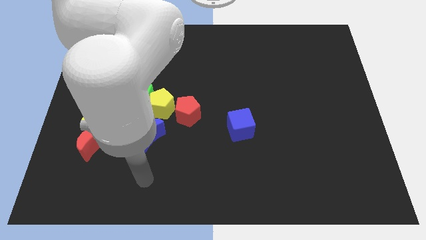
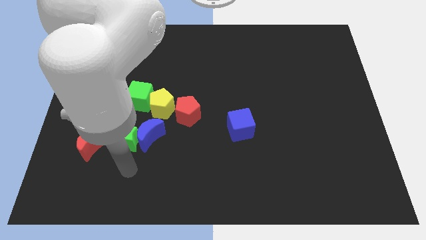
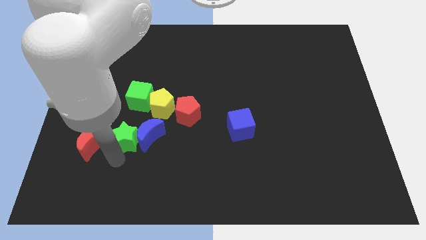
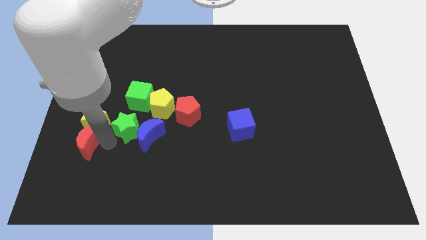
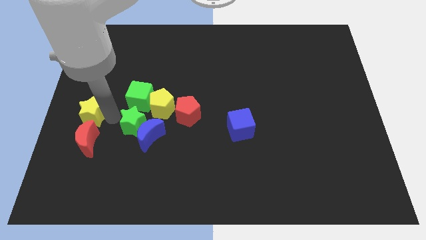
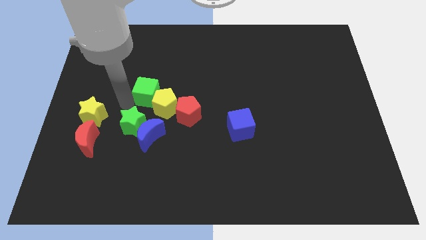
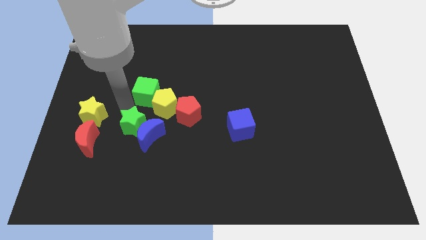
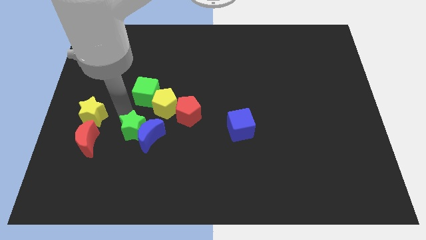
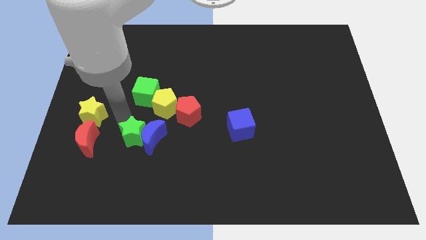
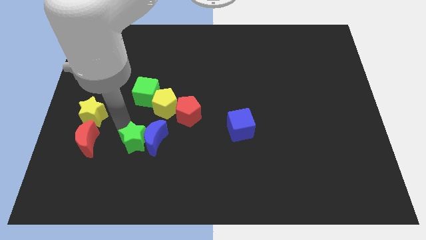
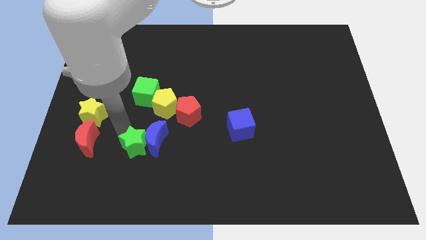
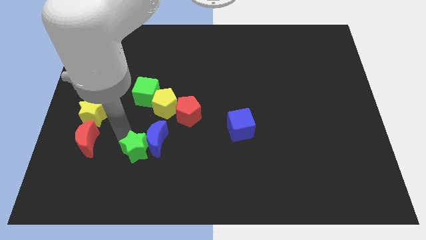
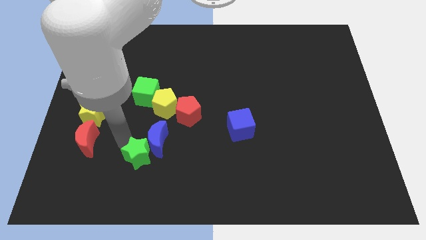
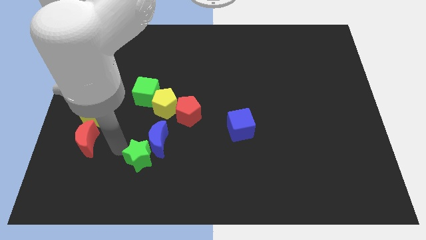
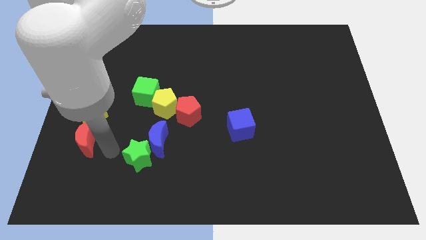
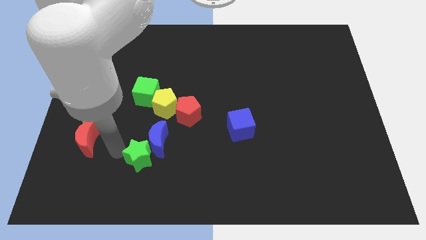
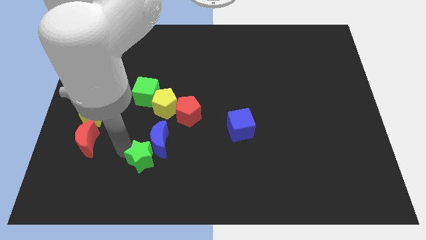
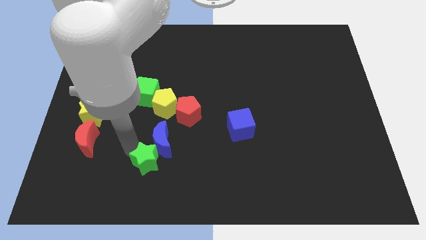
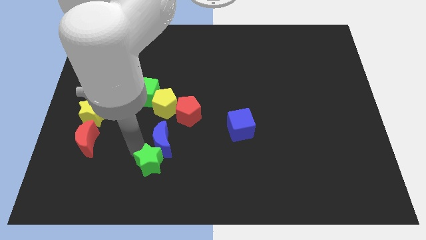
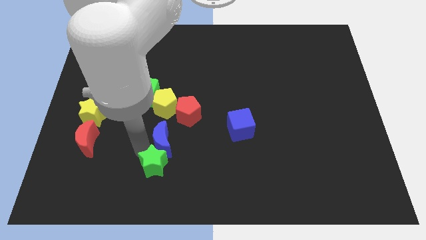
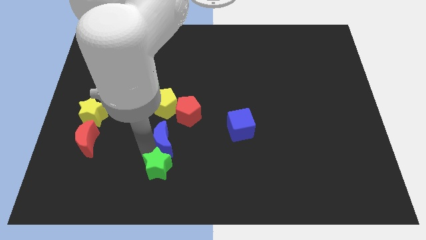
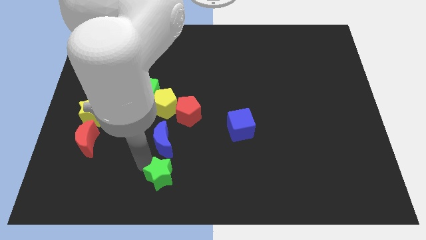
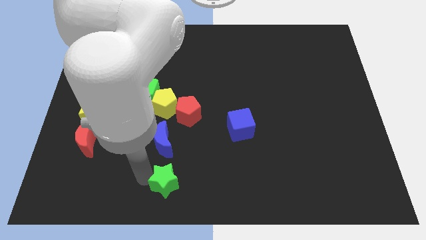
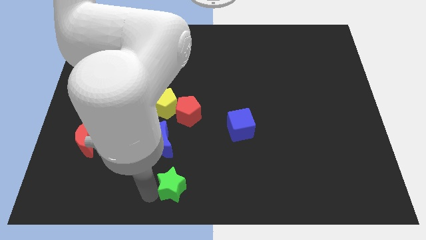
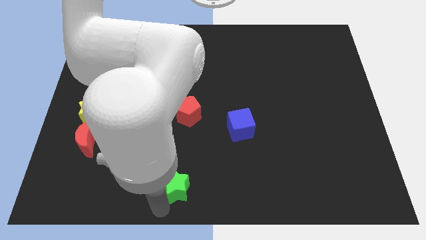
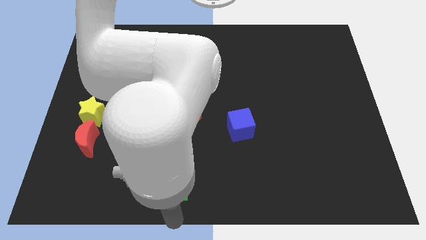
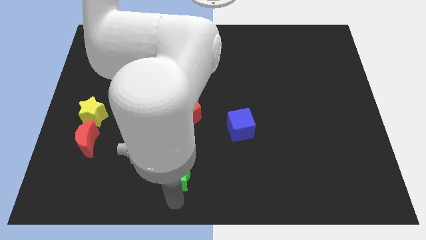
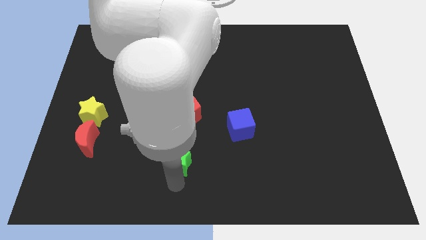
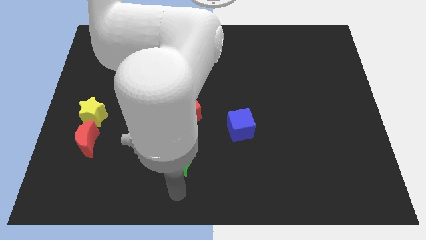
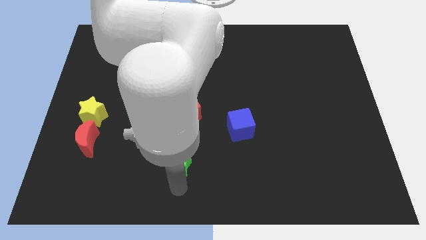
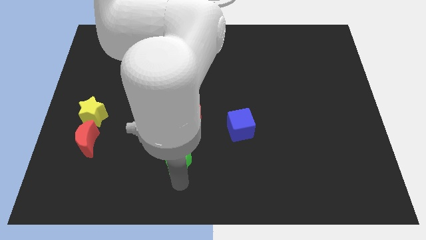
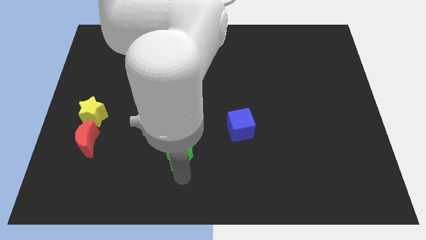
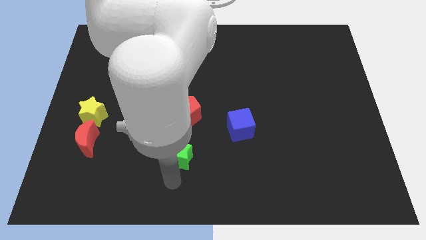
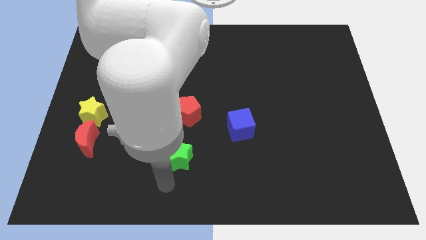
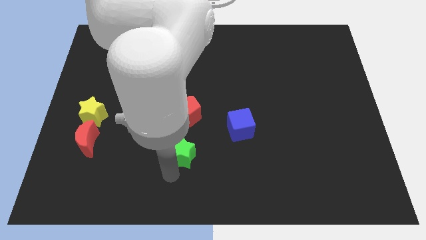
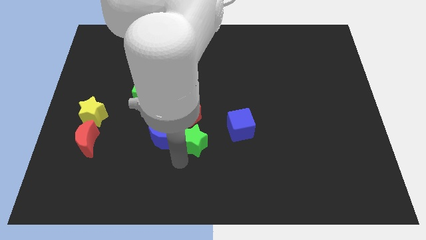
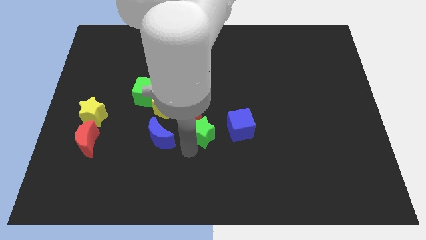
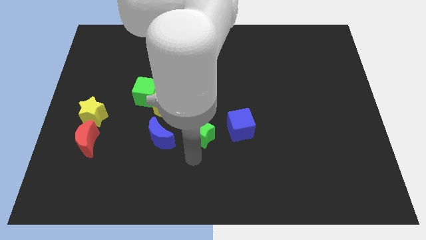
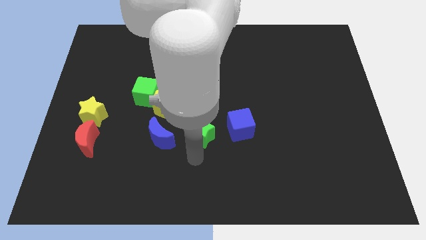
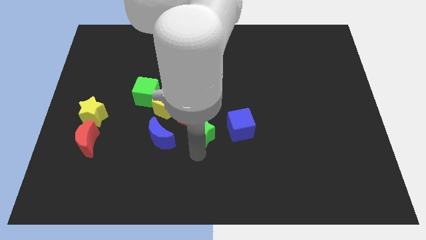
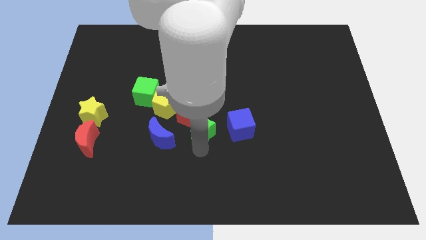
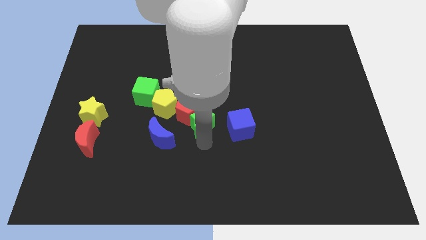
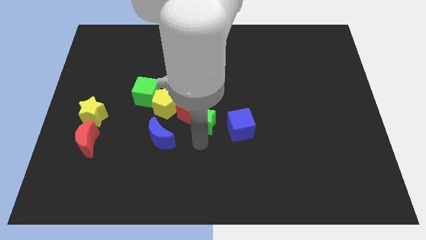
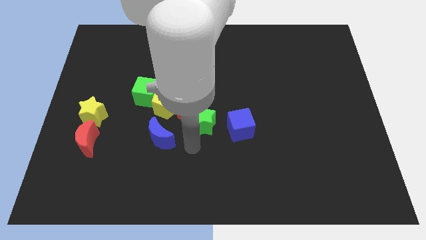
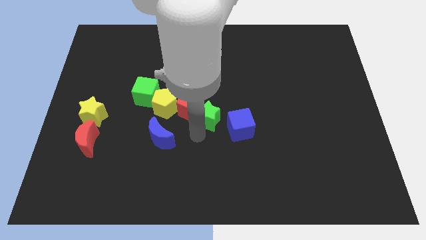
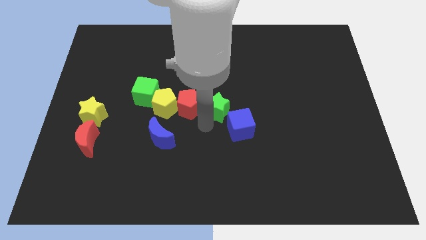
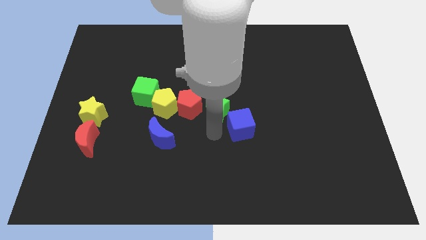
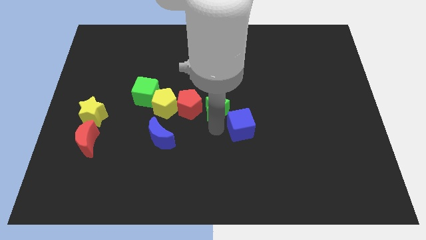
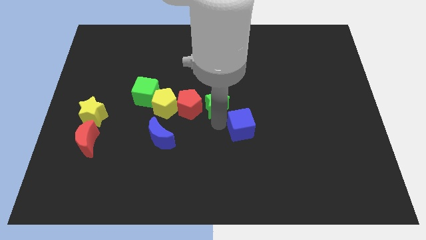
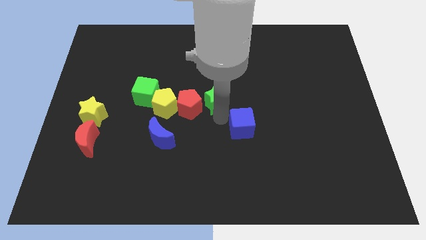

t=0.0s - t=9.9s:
slide the green star diagonally upwards and to the right

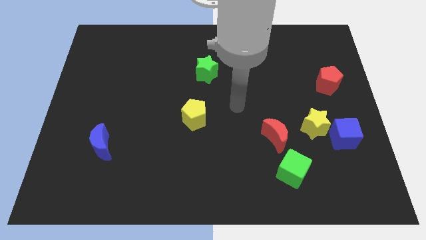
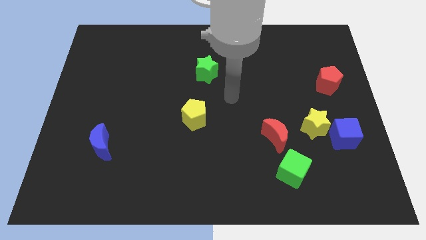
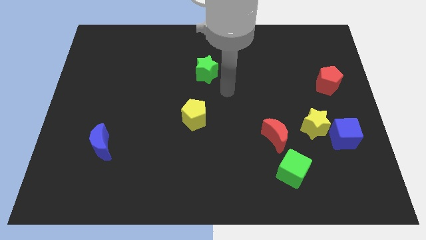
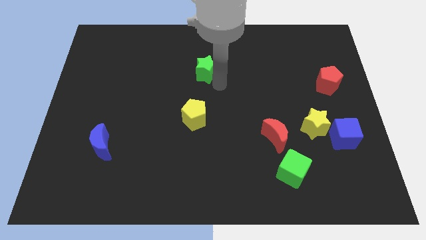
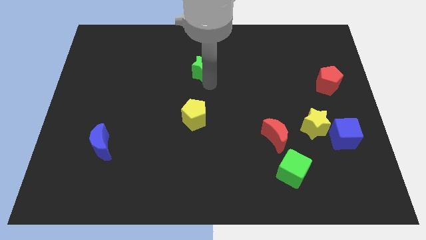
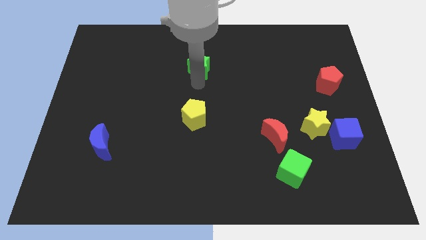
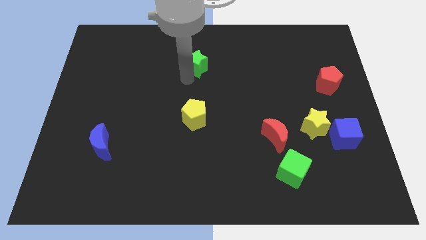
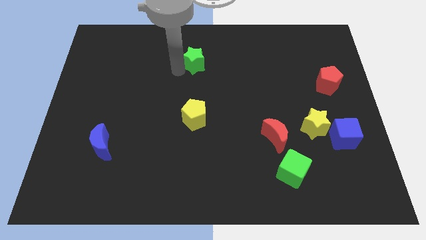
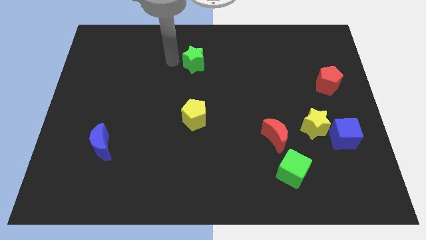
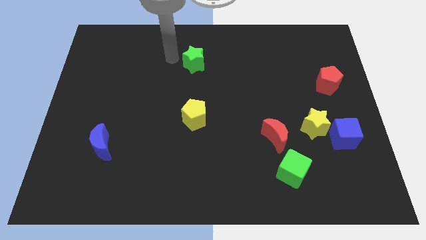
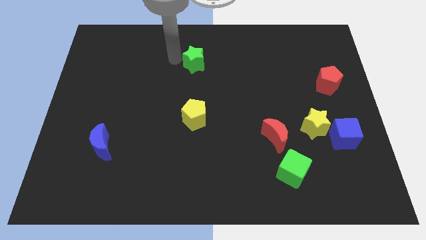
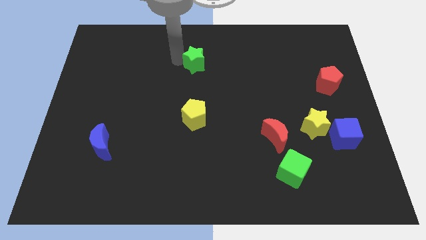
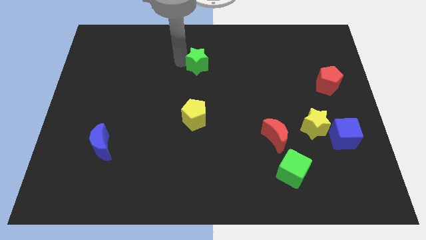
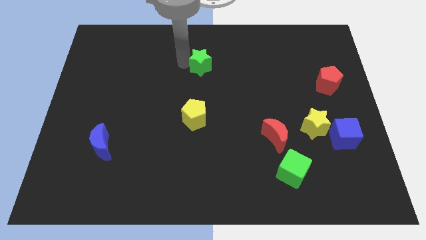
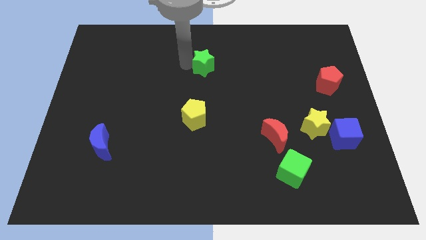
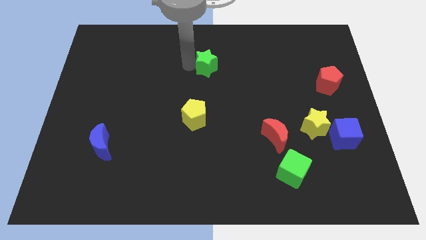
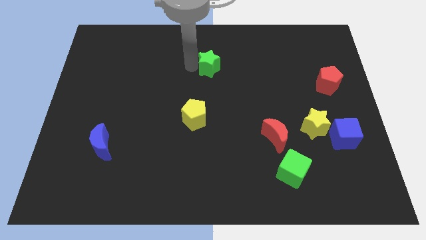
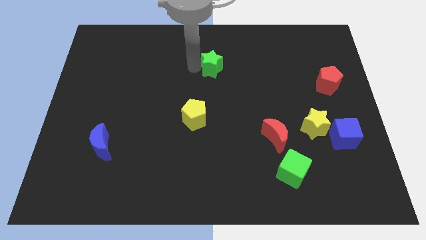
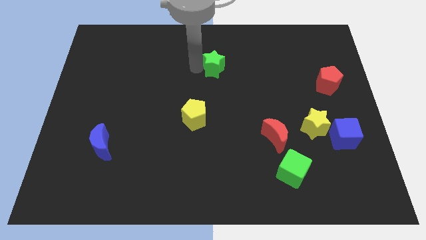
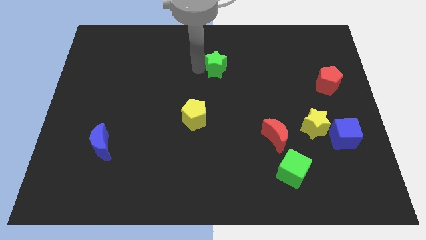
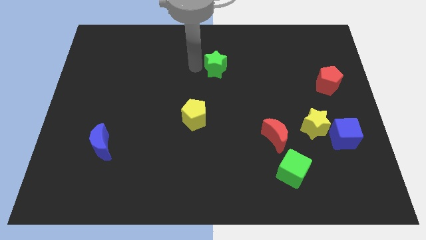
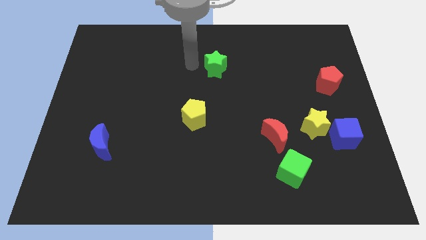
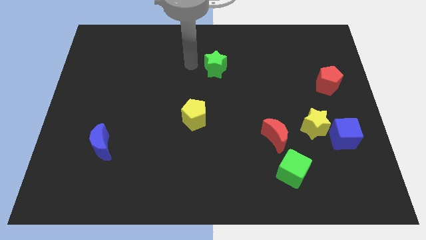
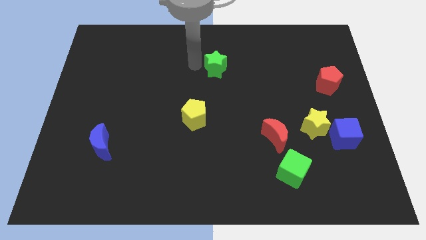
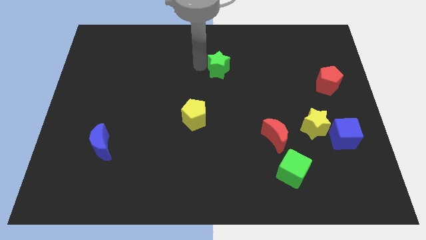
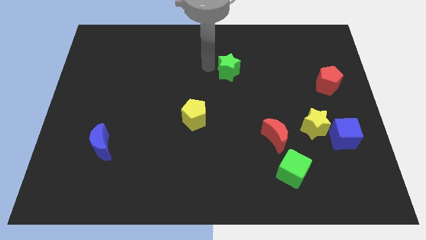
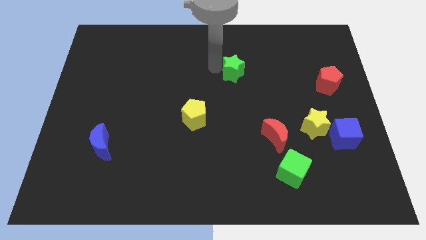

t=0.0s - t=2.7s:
slightly move the green star right

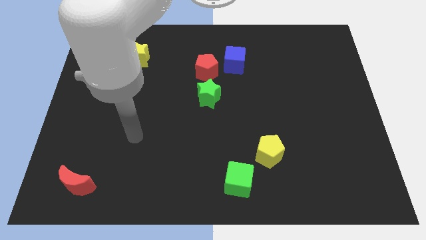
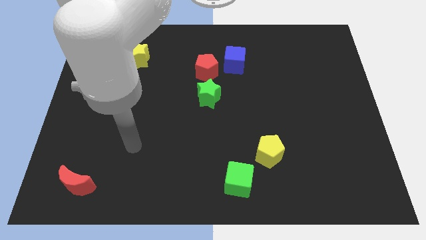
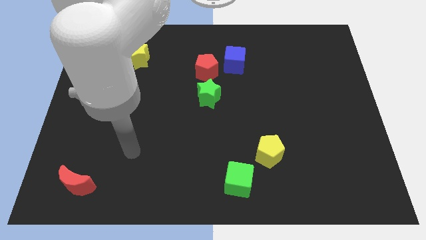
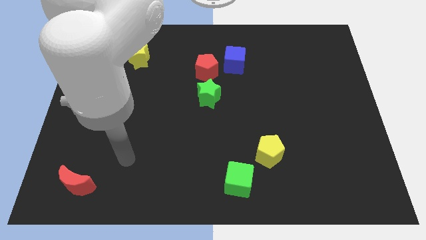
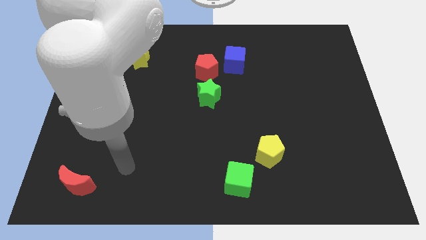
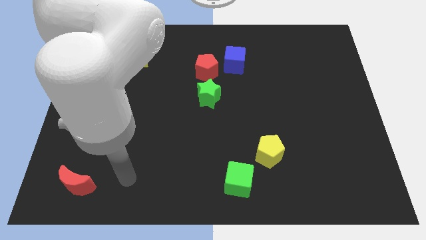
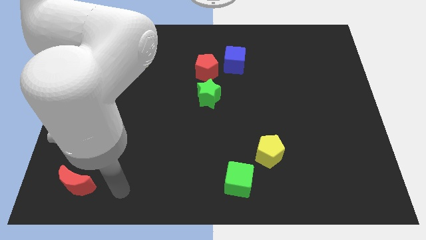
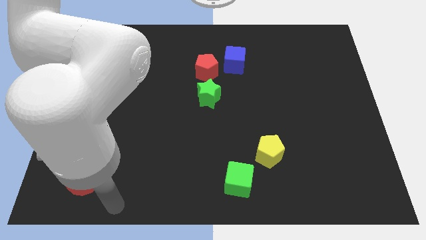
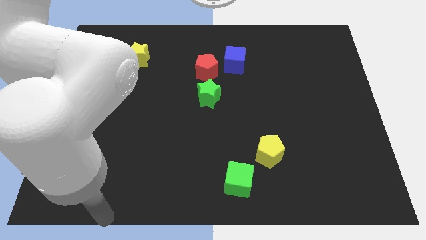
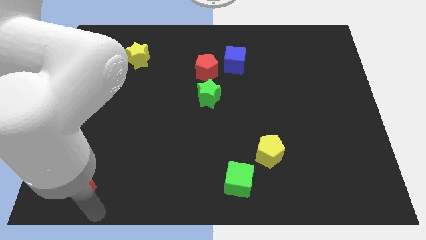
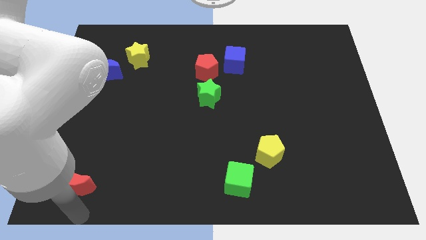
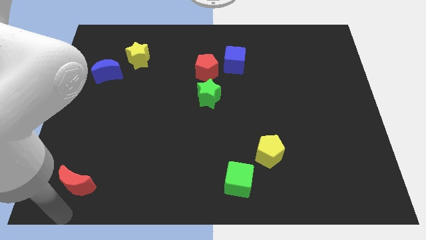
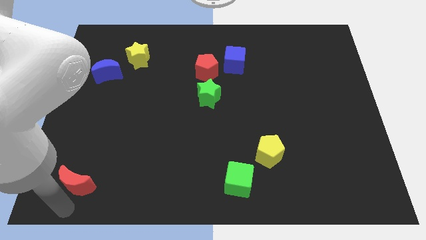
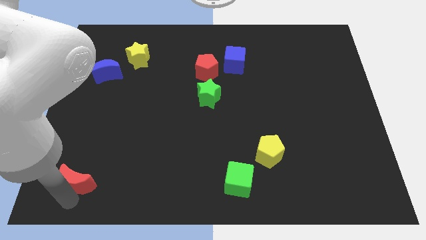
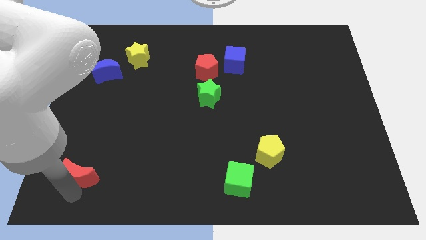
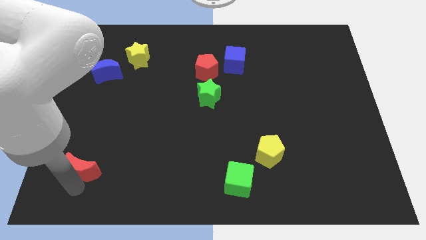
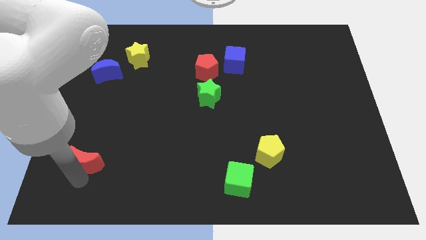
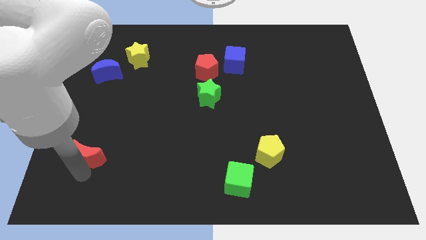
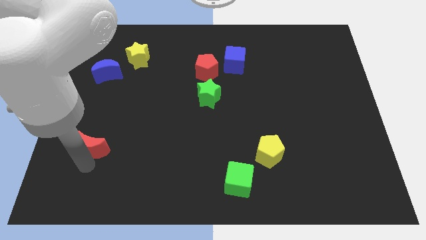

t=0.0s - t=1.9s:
move the red moon upwards a bit
